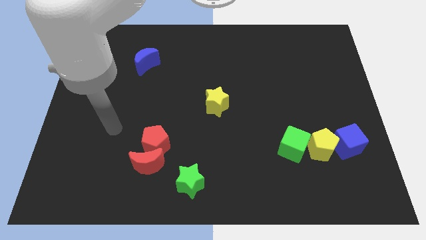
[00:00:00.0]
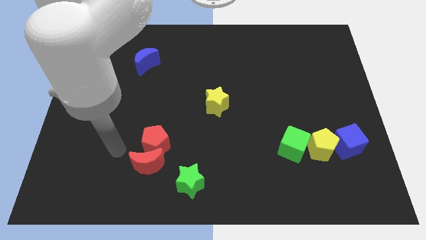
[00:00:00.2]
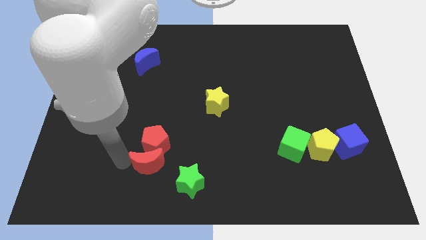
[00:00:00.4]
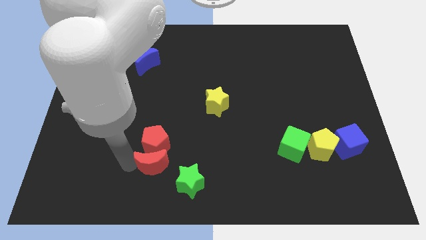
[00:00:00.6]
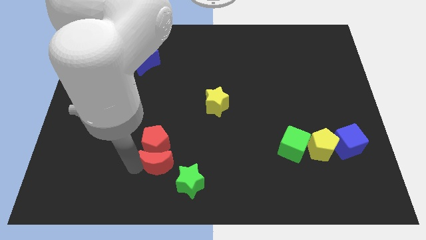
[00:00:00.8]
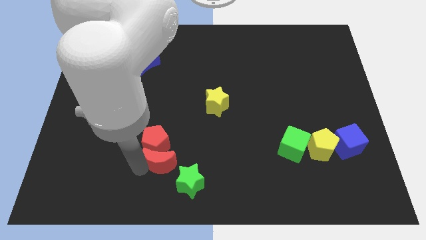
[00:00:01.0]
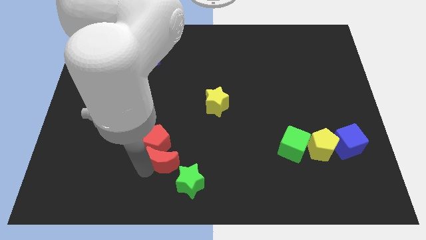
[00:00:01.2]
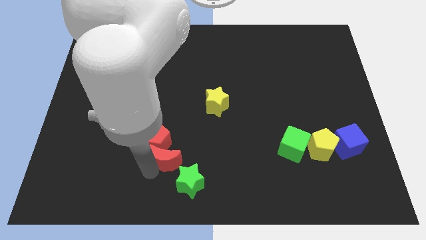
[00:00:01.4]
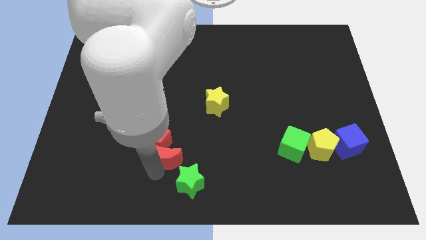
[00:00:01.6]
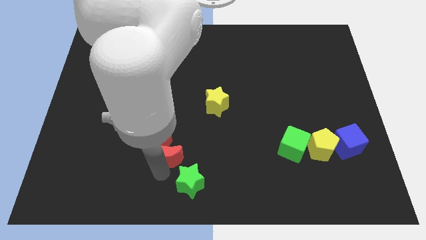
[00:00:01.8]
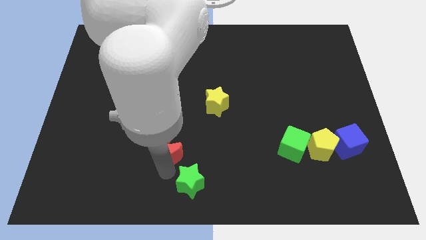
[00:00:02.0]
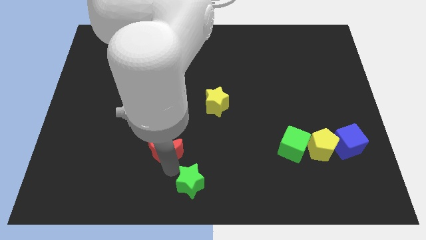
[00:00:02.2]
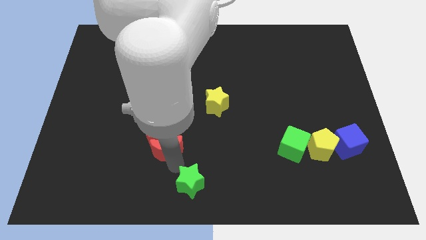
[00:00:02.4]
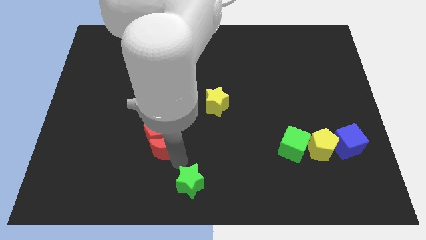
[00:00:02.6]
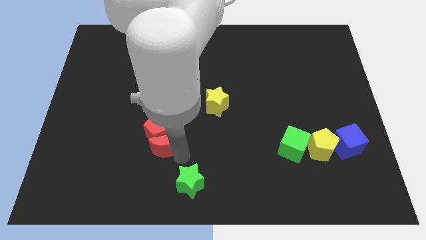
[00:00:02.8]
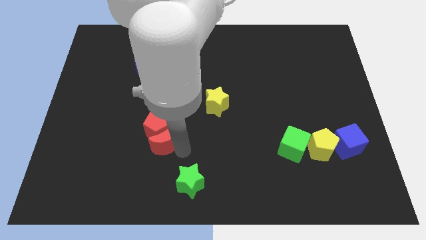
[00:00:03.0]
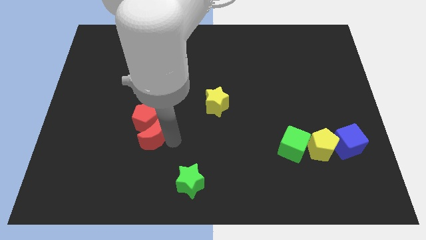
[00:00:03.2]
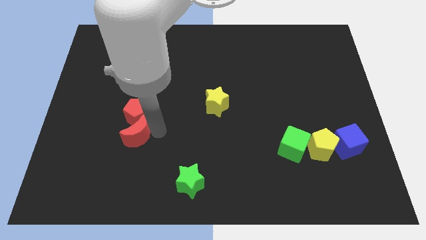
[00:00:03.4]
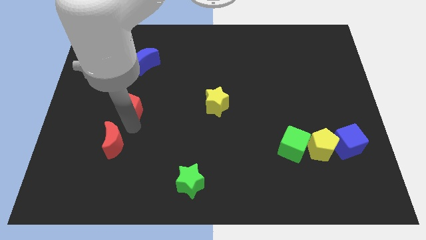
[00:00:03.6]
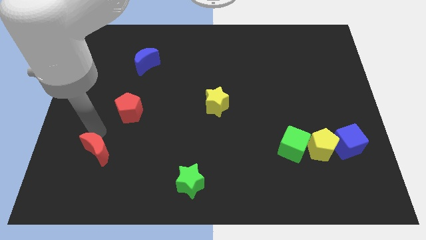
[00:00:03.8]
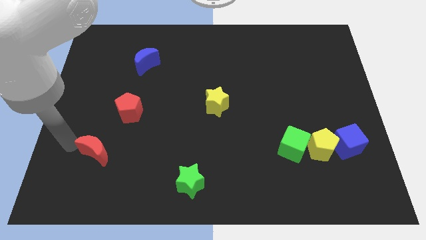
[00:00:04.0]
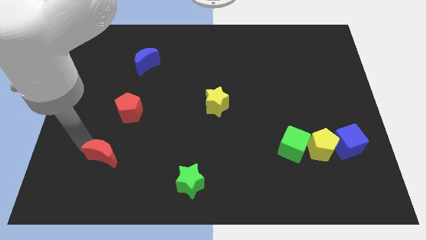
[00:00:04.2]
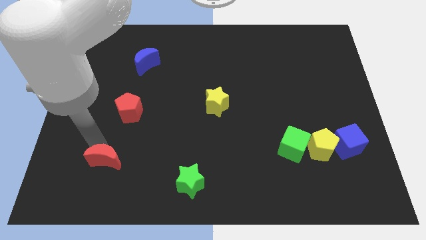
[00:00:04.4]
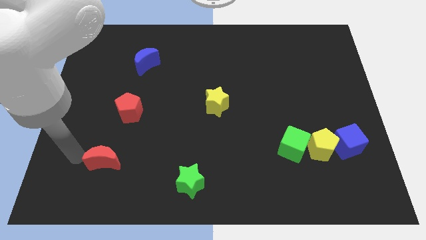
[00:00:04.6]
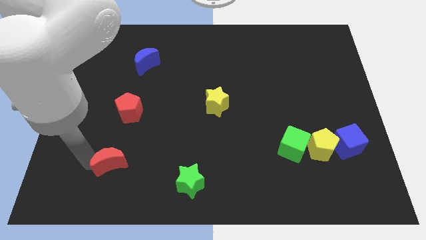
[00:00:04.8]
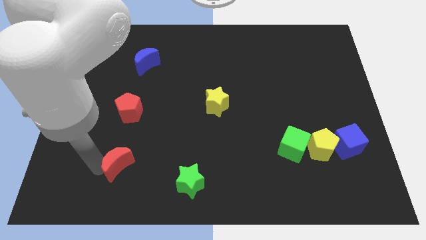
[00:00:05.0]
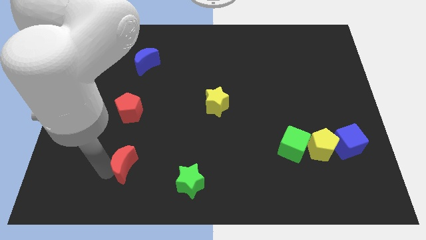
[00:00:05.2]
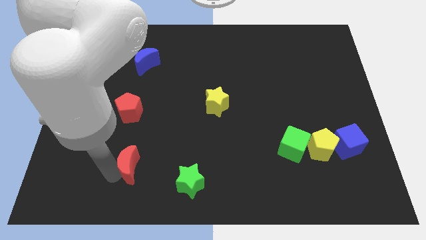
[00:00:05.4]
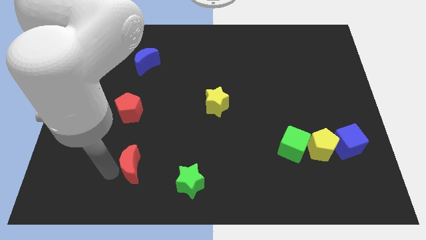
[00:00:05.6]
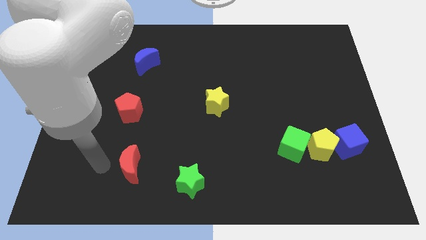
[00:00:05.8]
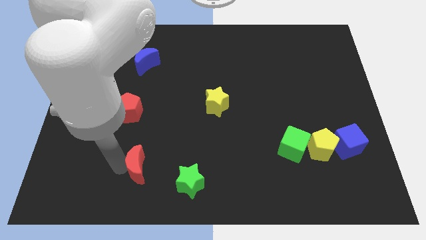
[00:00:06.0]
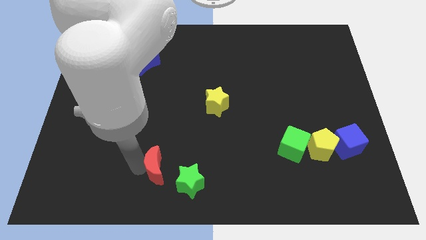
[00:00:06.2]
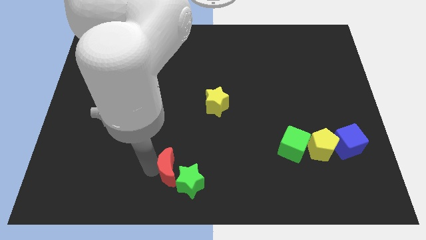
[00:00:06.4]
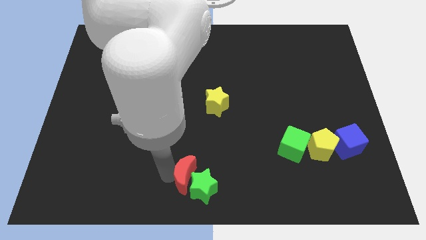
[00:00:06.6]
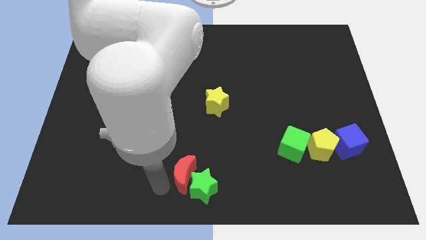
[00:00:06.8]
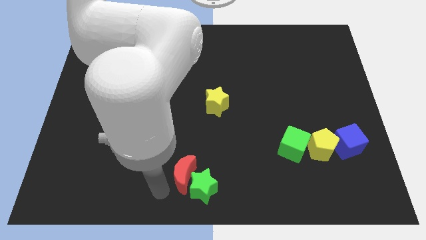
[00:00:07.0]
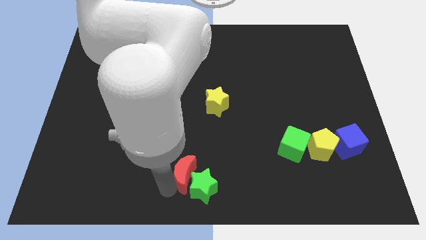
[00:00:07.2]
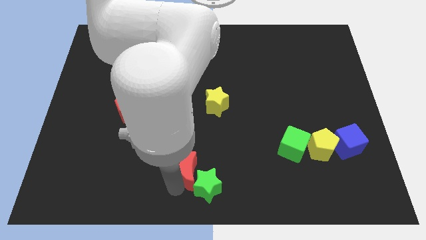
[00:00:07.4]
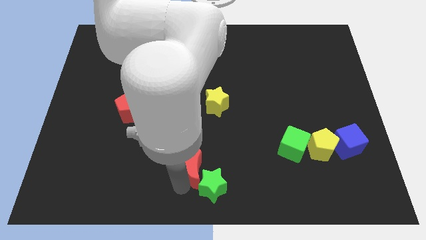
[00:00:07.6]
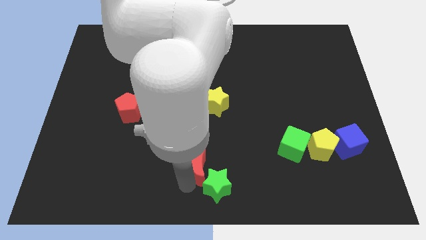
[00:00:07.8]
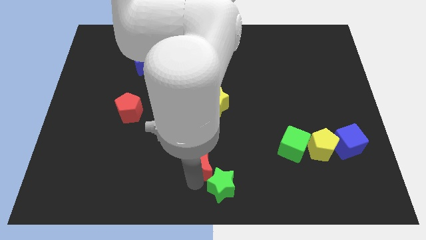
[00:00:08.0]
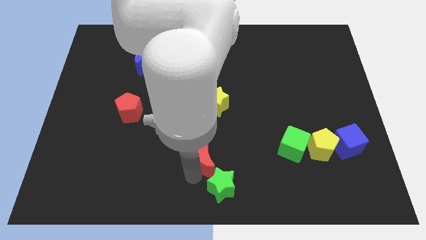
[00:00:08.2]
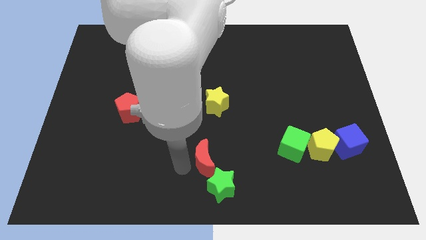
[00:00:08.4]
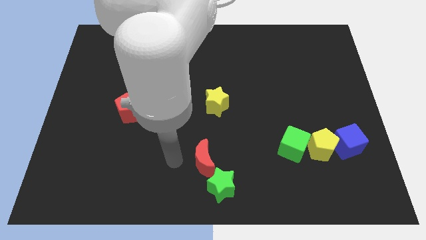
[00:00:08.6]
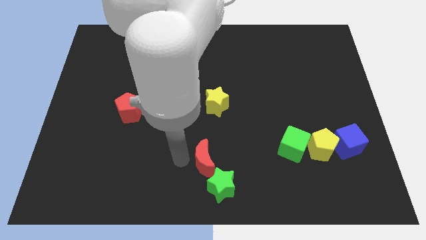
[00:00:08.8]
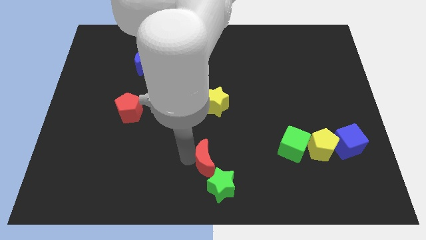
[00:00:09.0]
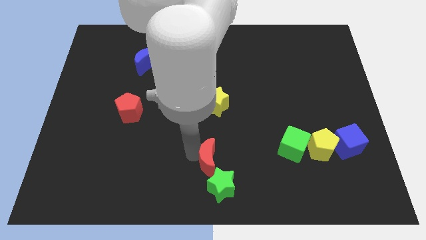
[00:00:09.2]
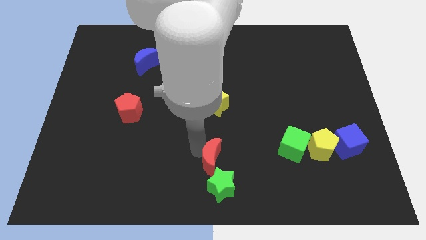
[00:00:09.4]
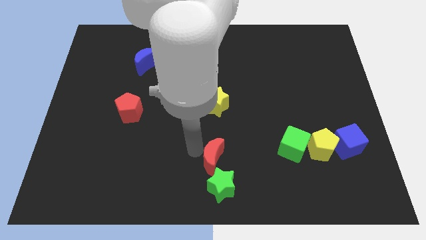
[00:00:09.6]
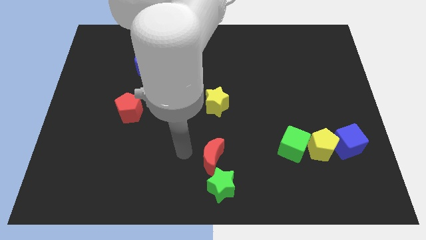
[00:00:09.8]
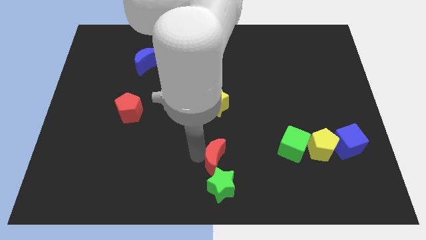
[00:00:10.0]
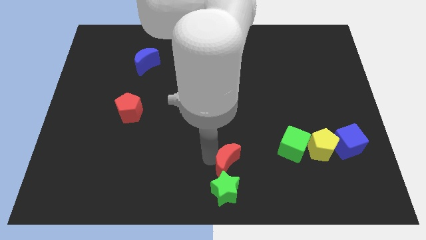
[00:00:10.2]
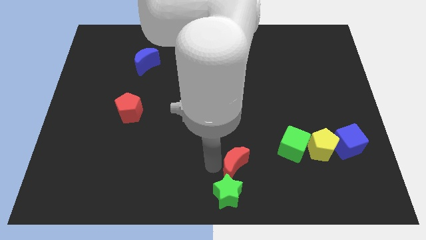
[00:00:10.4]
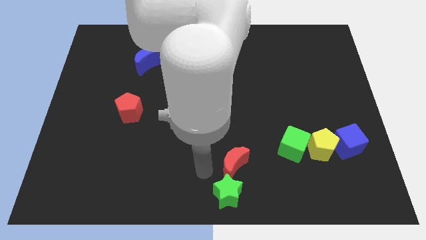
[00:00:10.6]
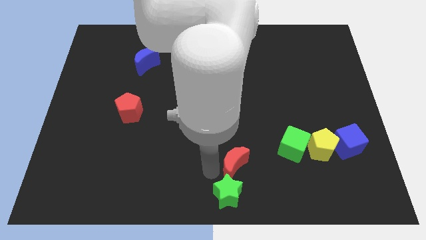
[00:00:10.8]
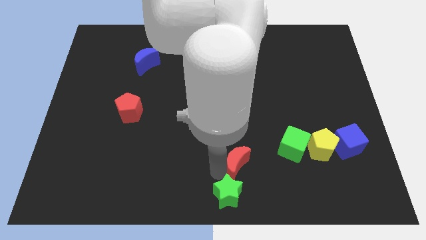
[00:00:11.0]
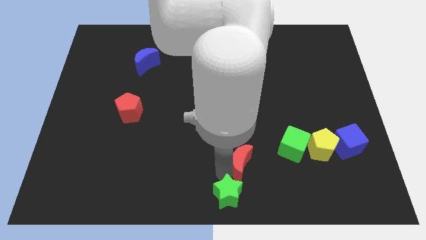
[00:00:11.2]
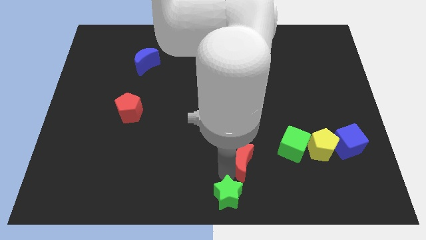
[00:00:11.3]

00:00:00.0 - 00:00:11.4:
slide the red moon right

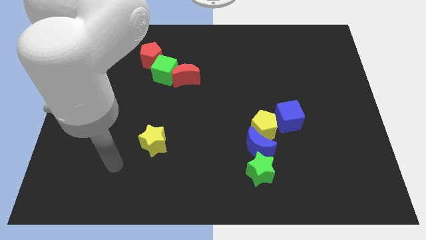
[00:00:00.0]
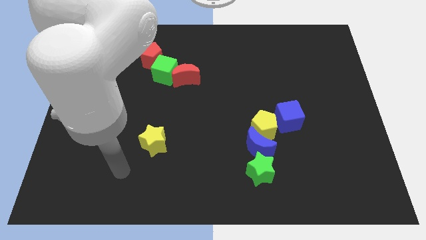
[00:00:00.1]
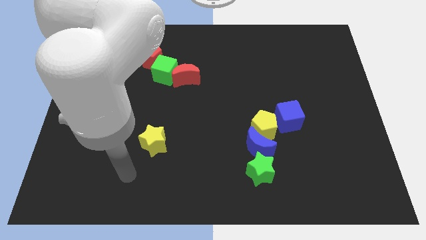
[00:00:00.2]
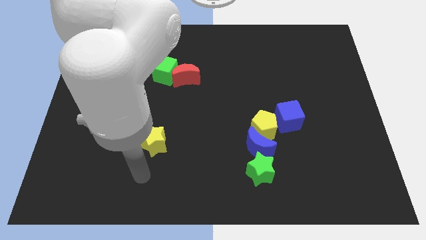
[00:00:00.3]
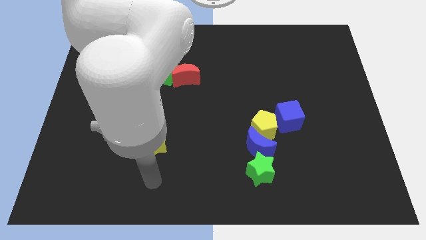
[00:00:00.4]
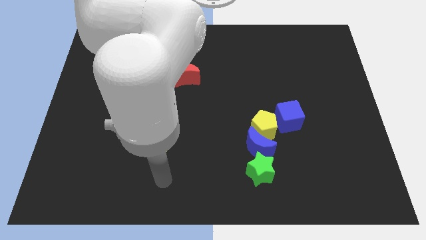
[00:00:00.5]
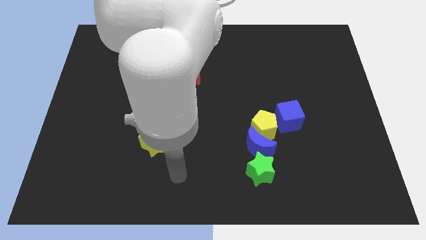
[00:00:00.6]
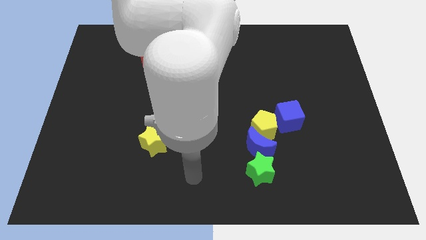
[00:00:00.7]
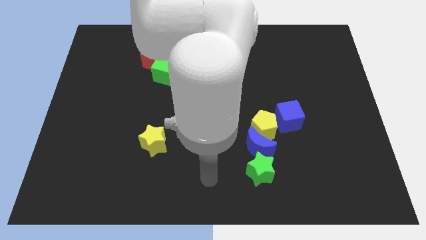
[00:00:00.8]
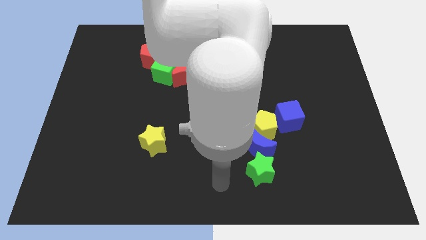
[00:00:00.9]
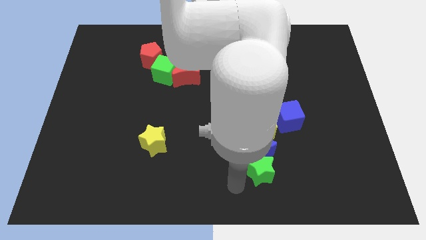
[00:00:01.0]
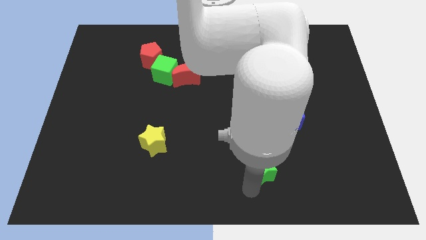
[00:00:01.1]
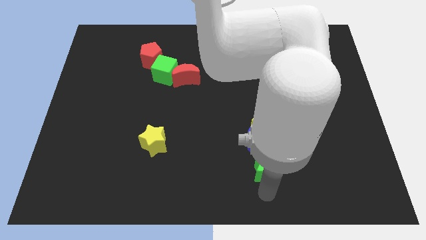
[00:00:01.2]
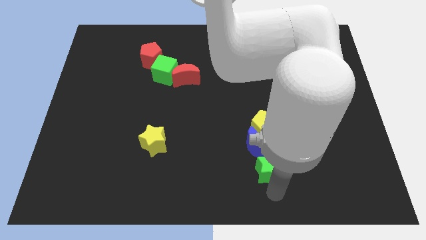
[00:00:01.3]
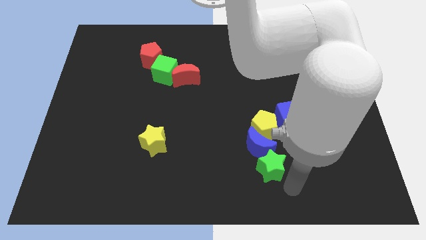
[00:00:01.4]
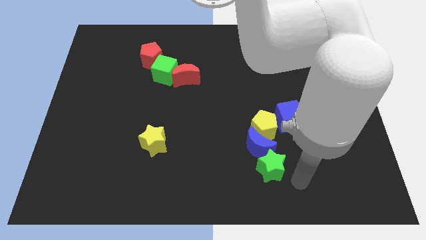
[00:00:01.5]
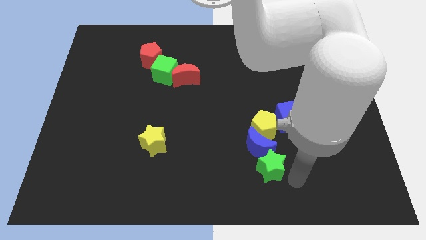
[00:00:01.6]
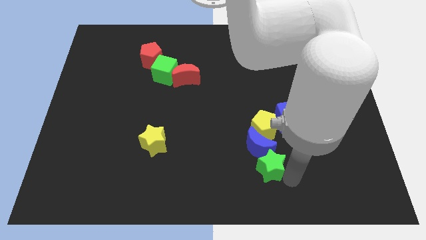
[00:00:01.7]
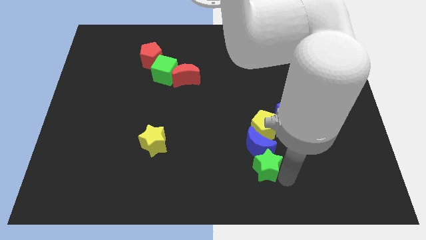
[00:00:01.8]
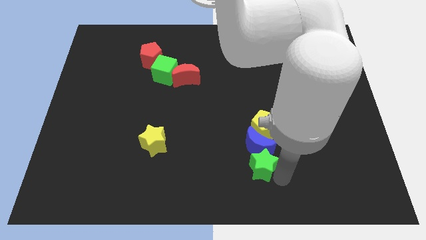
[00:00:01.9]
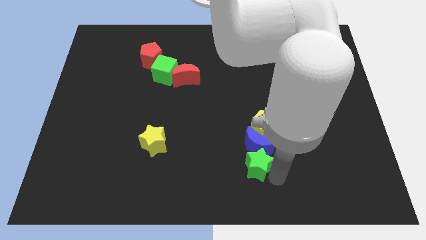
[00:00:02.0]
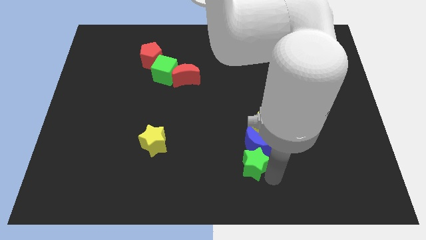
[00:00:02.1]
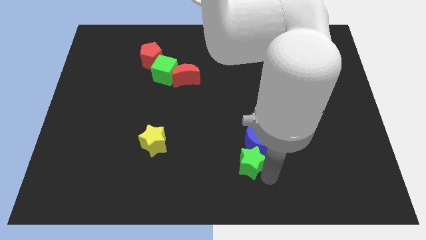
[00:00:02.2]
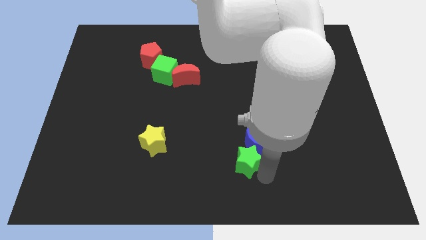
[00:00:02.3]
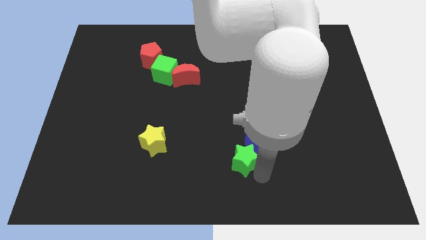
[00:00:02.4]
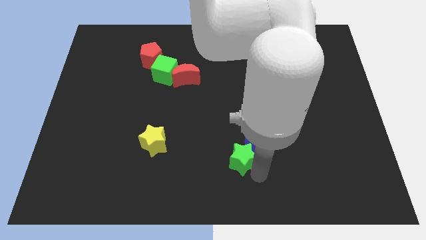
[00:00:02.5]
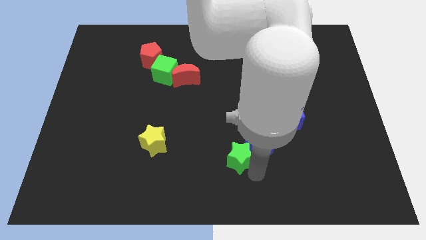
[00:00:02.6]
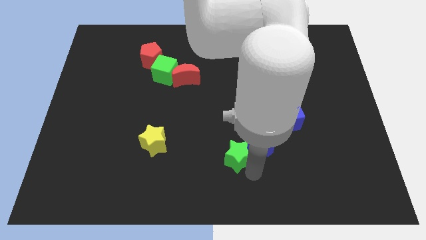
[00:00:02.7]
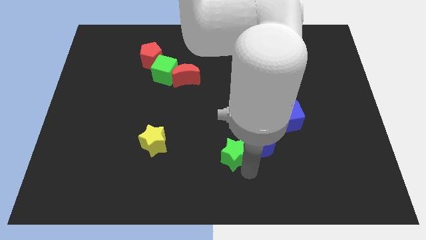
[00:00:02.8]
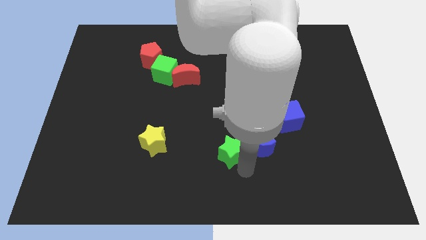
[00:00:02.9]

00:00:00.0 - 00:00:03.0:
move the green star somewhat up and then to the left
